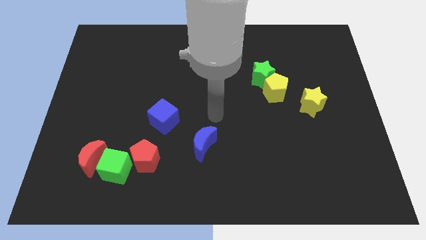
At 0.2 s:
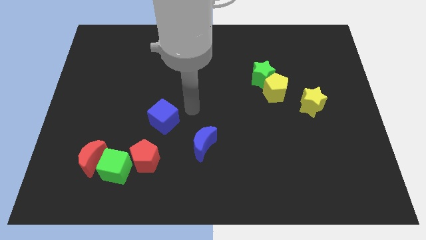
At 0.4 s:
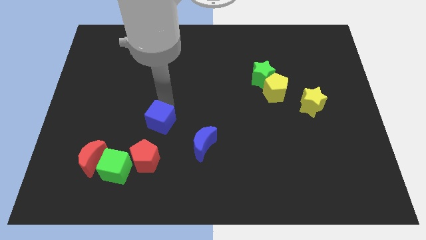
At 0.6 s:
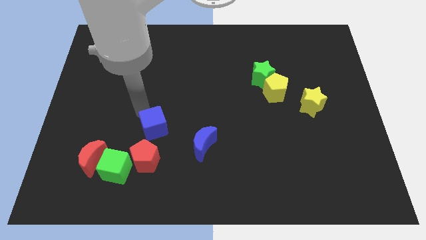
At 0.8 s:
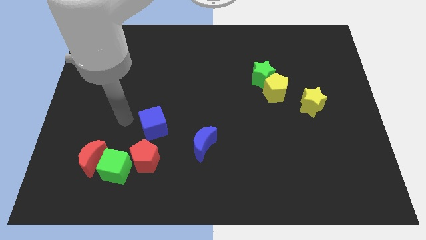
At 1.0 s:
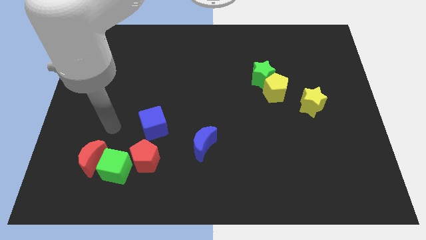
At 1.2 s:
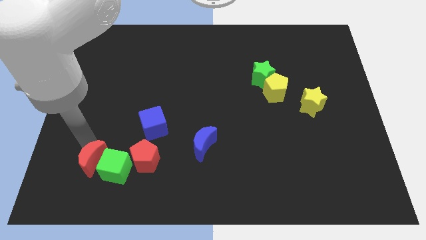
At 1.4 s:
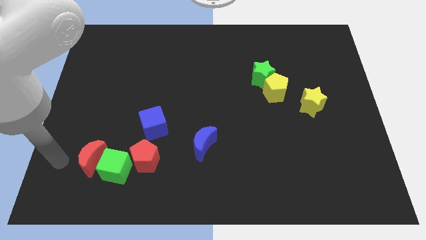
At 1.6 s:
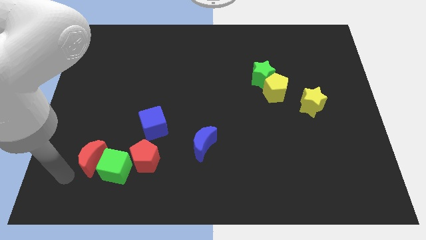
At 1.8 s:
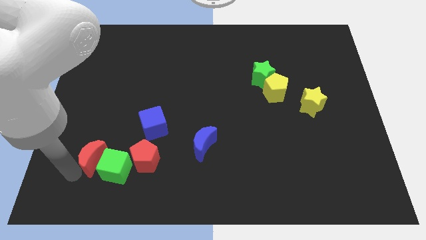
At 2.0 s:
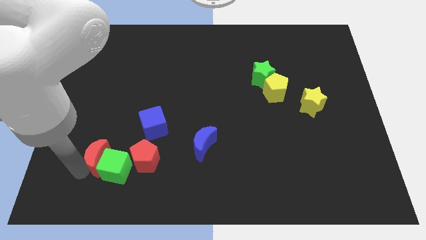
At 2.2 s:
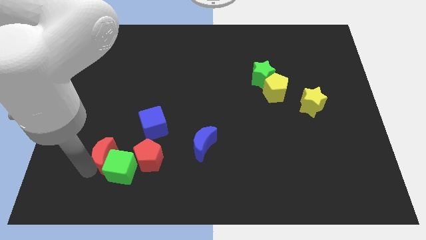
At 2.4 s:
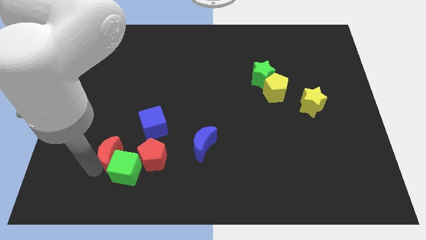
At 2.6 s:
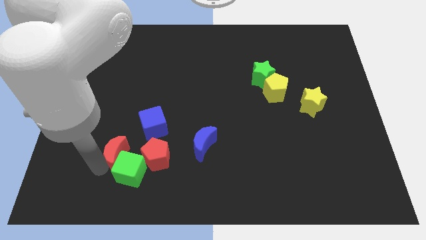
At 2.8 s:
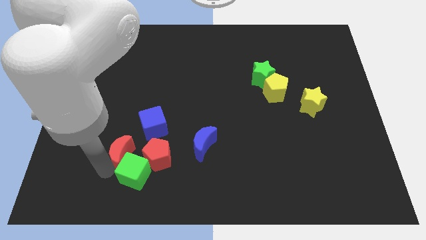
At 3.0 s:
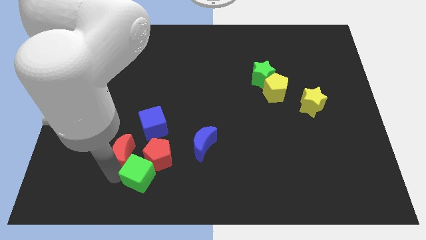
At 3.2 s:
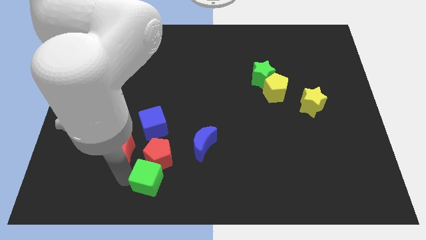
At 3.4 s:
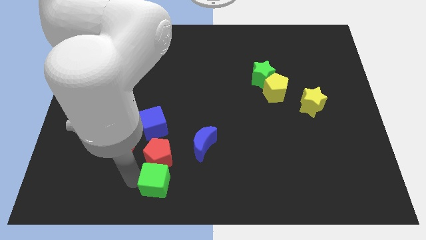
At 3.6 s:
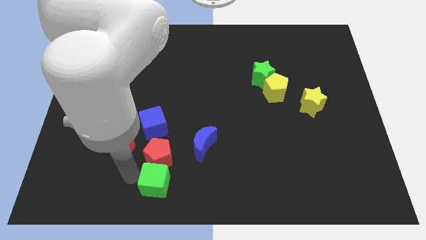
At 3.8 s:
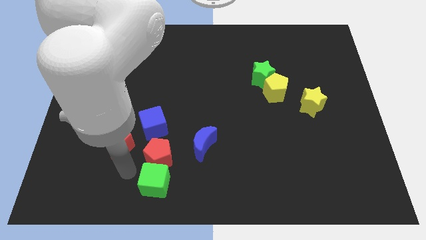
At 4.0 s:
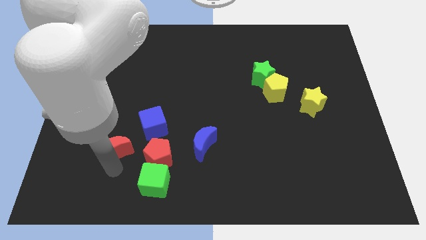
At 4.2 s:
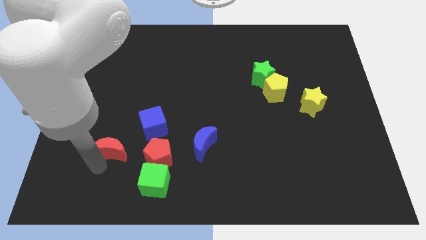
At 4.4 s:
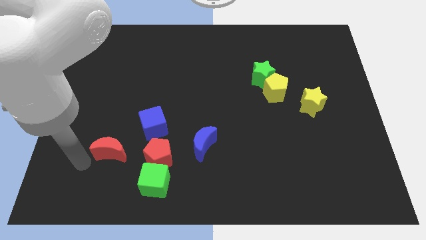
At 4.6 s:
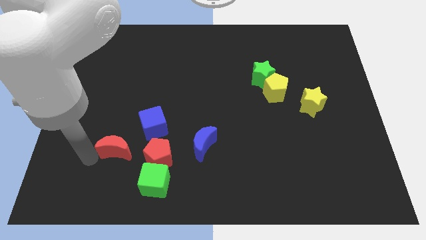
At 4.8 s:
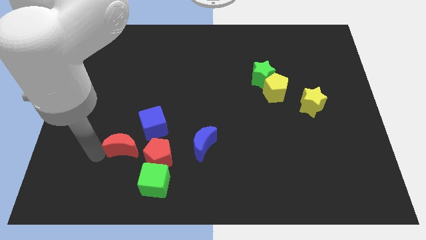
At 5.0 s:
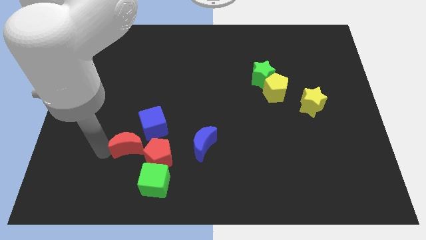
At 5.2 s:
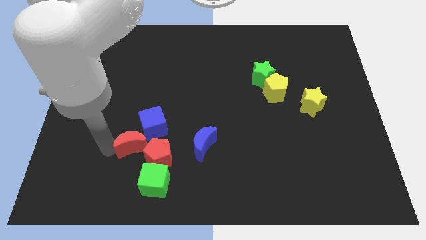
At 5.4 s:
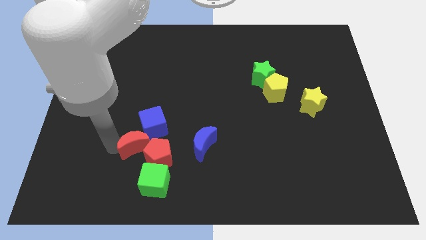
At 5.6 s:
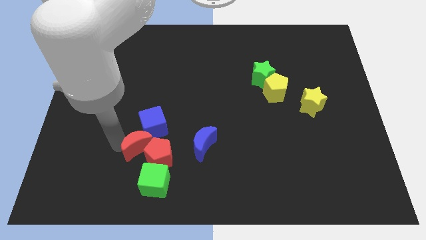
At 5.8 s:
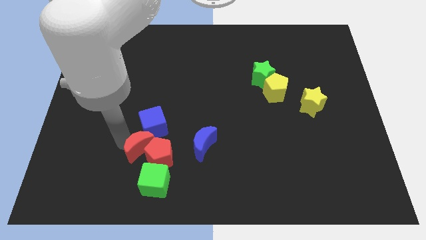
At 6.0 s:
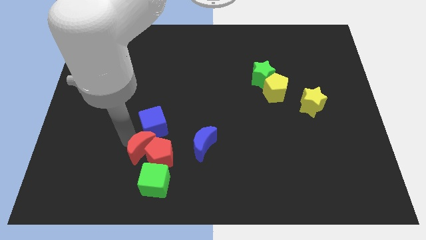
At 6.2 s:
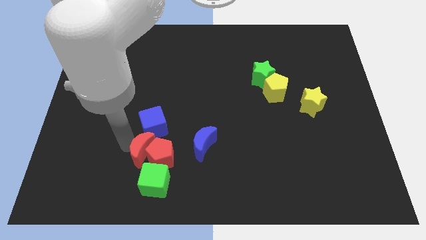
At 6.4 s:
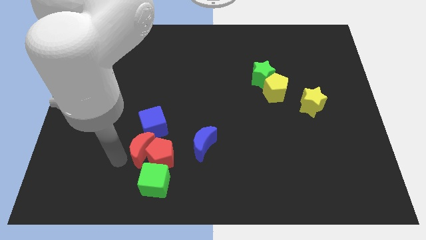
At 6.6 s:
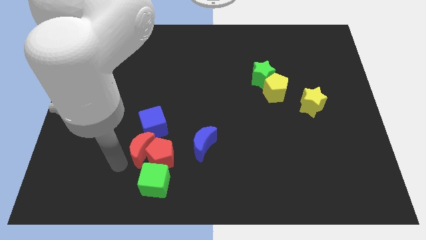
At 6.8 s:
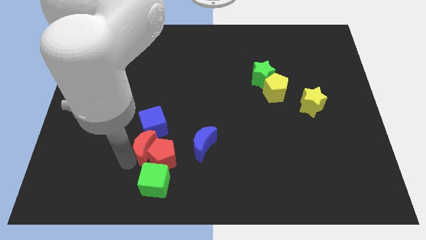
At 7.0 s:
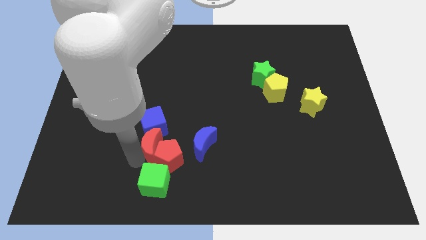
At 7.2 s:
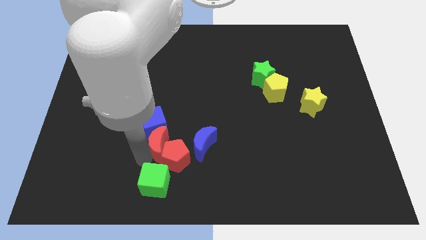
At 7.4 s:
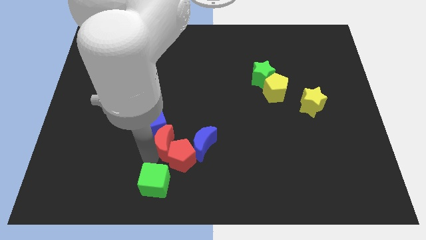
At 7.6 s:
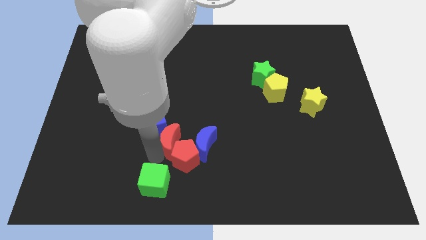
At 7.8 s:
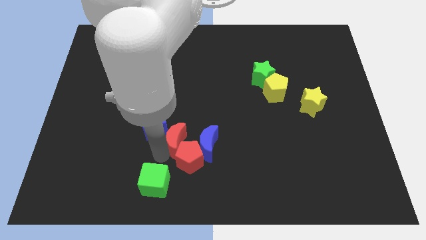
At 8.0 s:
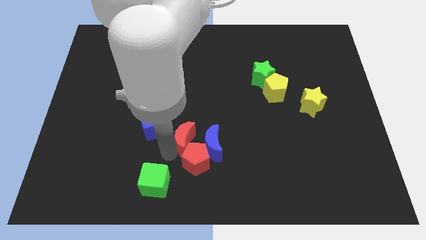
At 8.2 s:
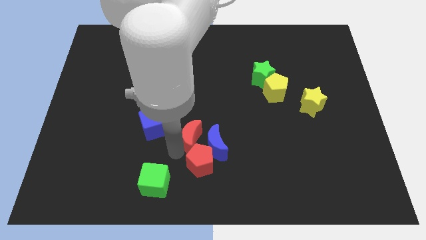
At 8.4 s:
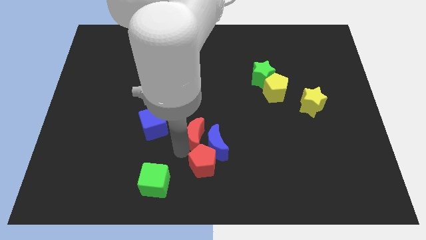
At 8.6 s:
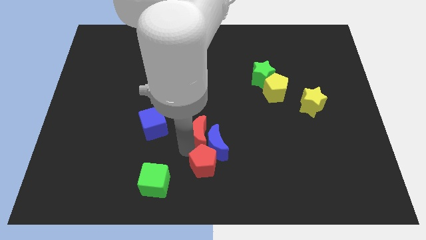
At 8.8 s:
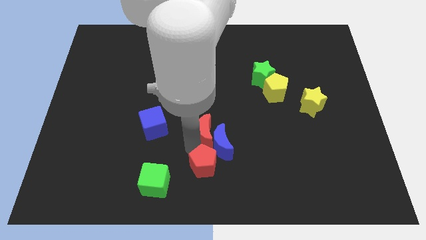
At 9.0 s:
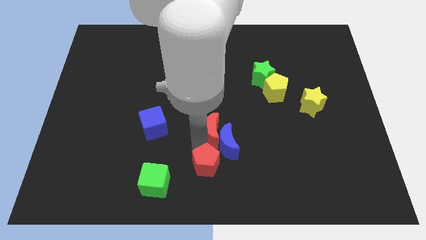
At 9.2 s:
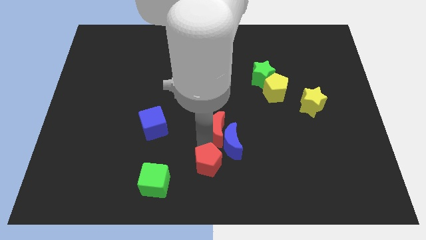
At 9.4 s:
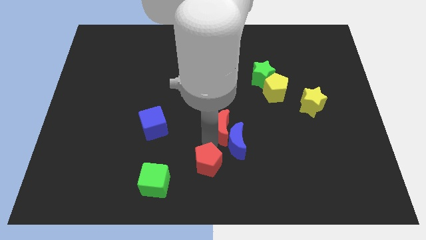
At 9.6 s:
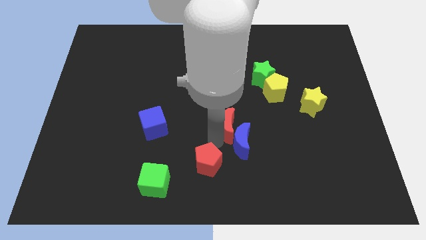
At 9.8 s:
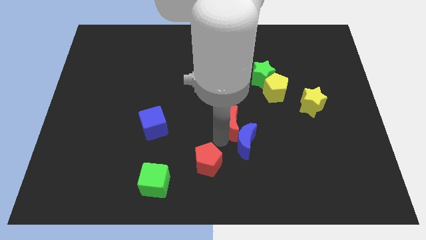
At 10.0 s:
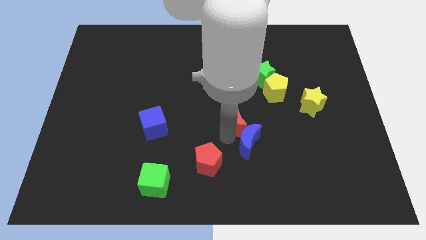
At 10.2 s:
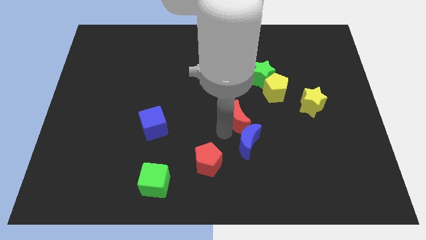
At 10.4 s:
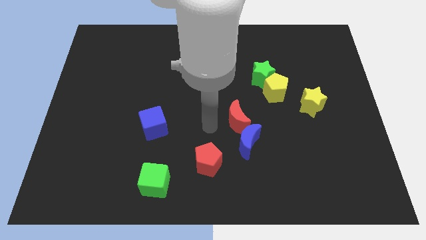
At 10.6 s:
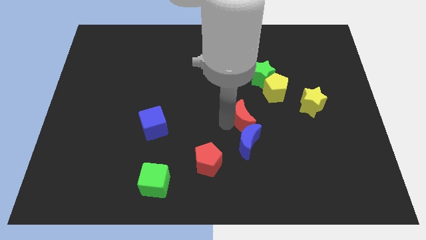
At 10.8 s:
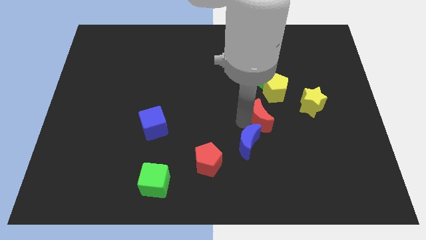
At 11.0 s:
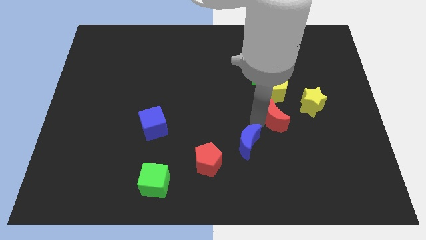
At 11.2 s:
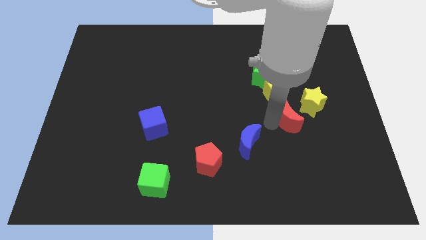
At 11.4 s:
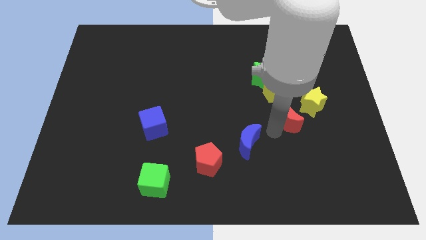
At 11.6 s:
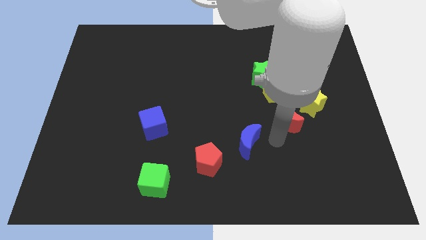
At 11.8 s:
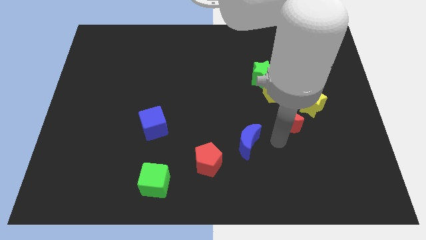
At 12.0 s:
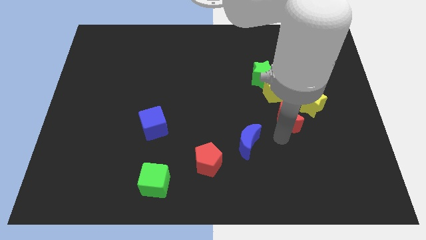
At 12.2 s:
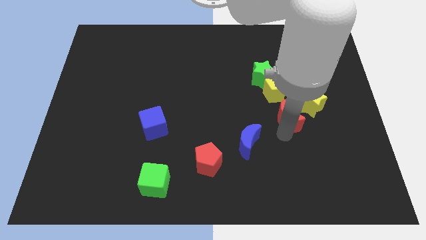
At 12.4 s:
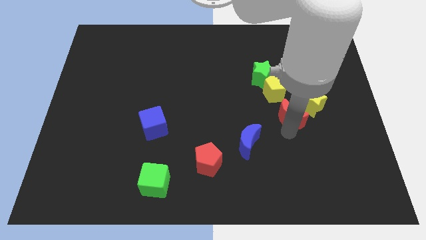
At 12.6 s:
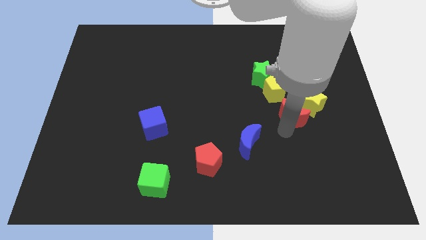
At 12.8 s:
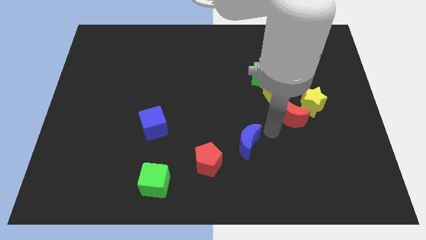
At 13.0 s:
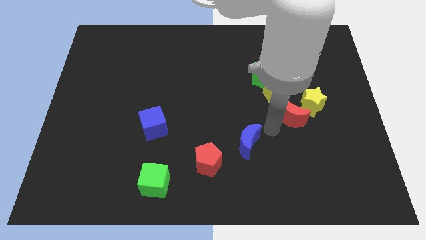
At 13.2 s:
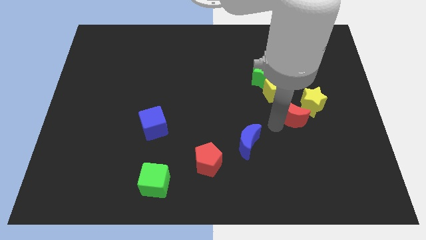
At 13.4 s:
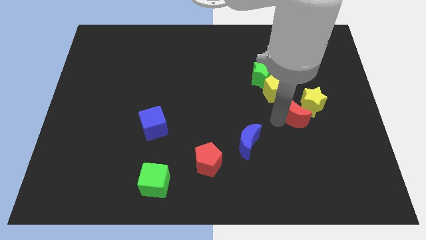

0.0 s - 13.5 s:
push the red moon to the yellow star
